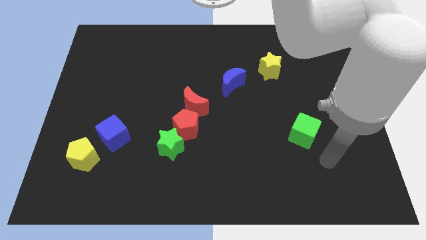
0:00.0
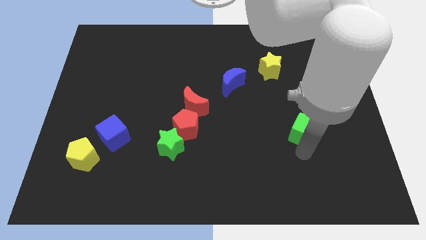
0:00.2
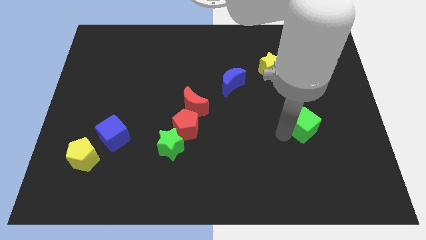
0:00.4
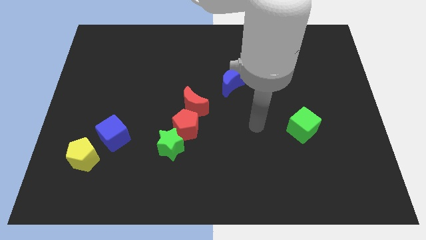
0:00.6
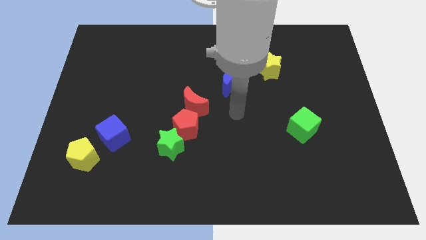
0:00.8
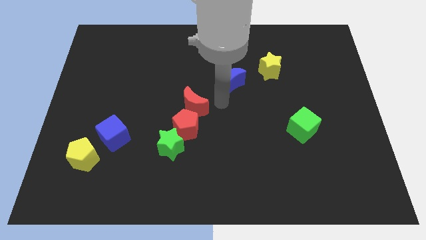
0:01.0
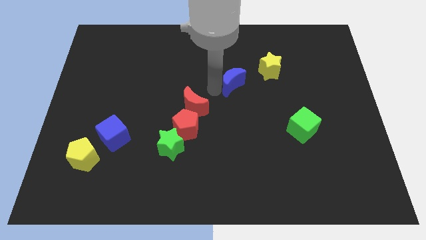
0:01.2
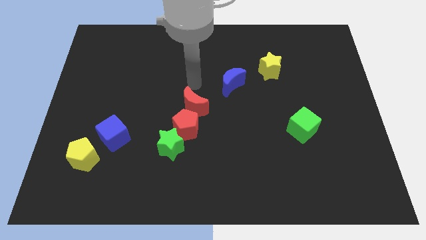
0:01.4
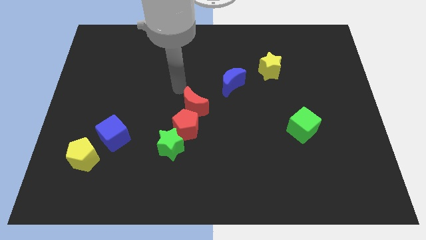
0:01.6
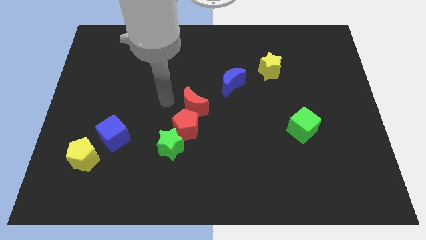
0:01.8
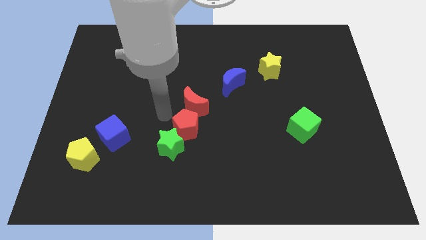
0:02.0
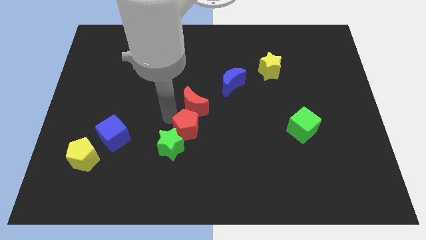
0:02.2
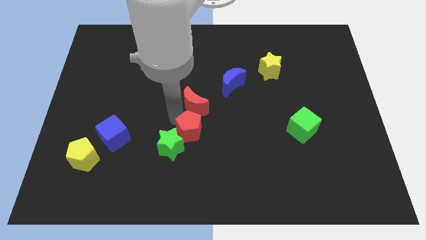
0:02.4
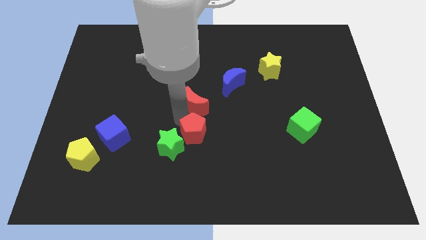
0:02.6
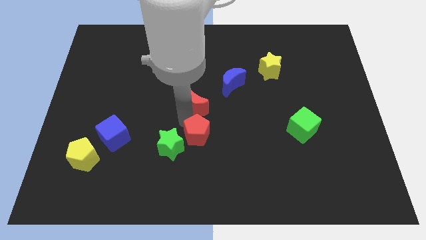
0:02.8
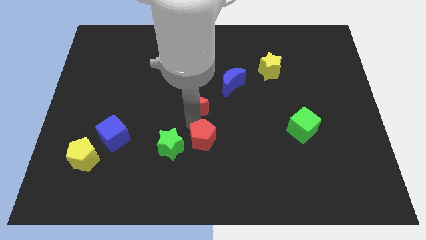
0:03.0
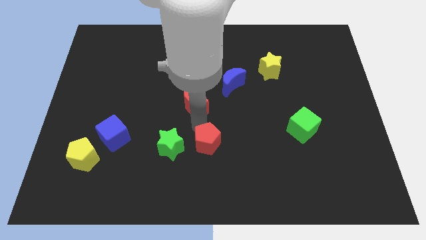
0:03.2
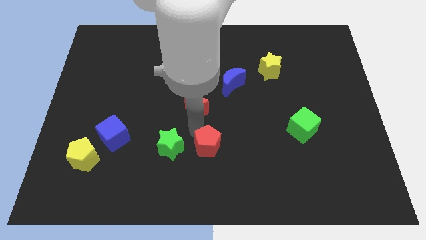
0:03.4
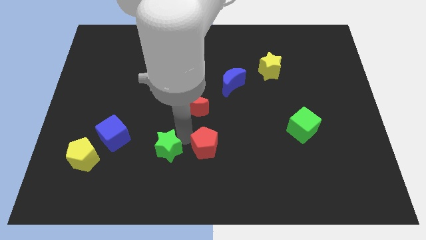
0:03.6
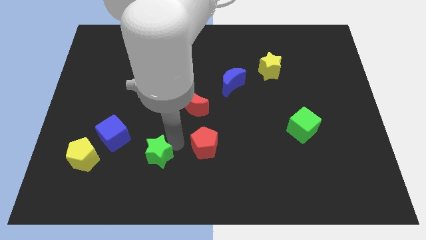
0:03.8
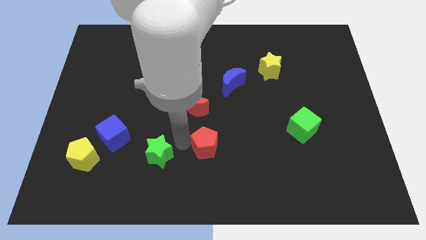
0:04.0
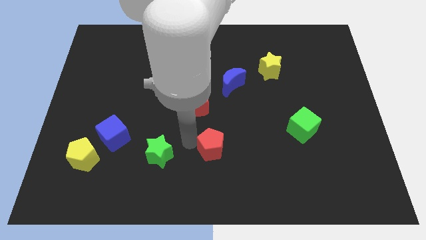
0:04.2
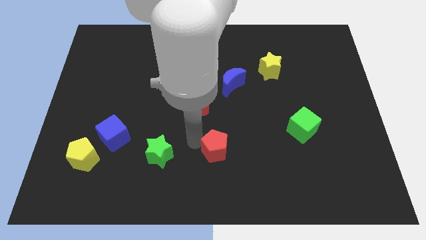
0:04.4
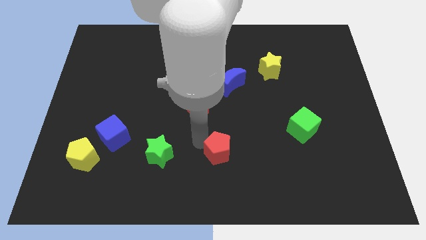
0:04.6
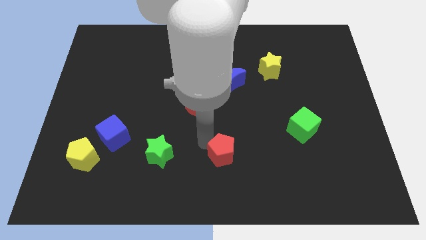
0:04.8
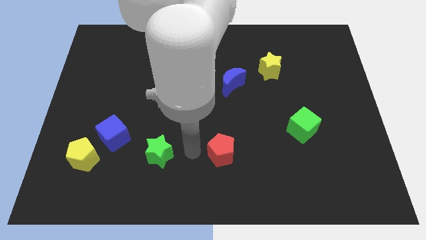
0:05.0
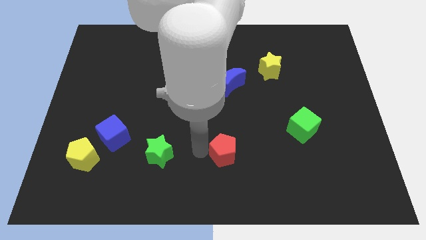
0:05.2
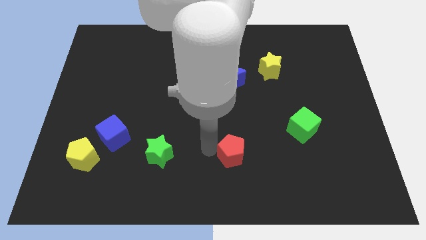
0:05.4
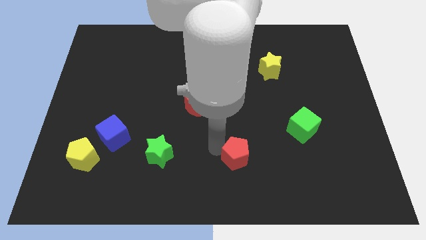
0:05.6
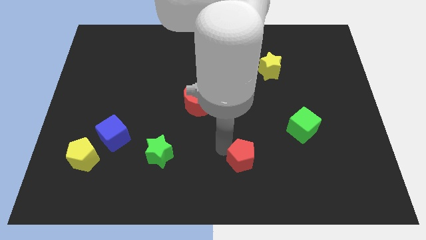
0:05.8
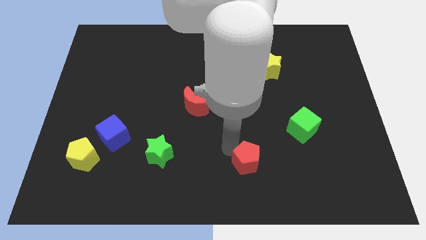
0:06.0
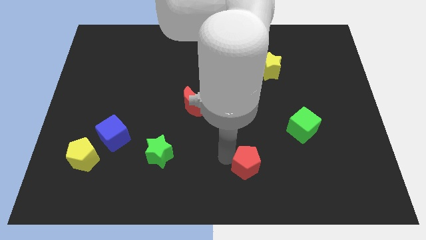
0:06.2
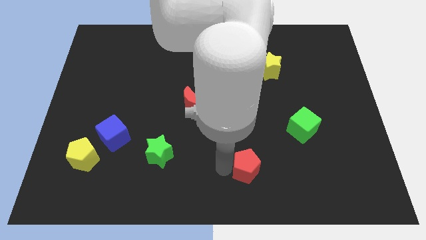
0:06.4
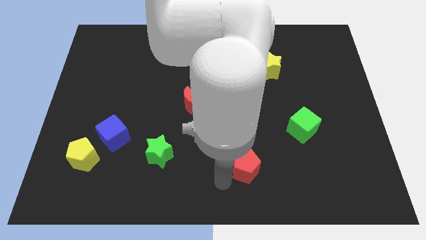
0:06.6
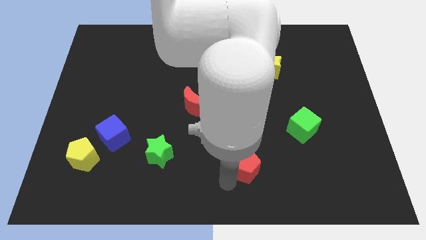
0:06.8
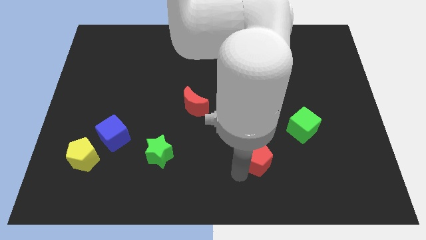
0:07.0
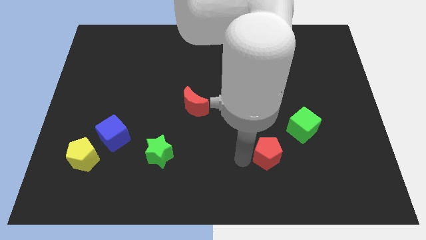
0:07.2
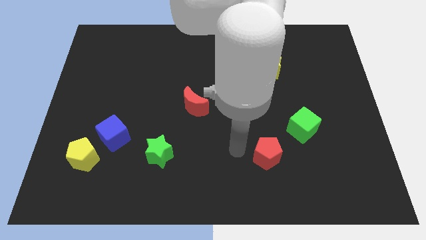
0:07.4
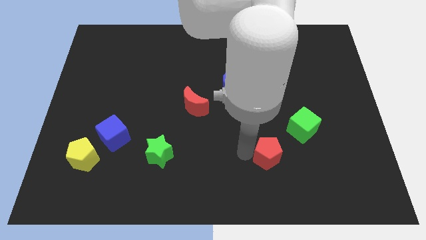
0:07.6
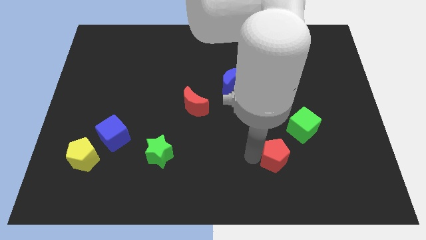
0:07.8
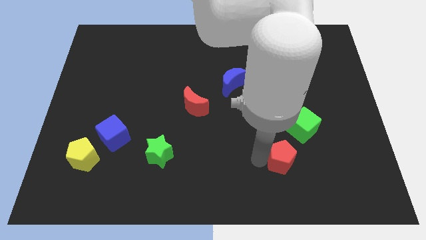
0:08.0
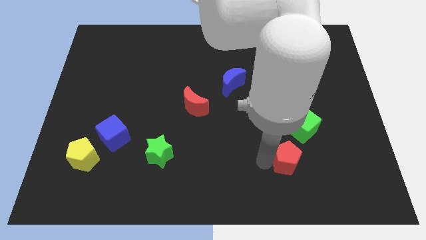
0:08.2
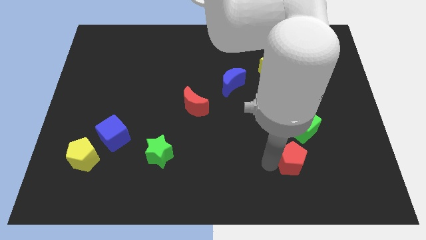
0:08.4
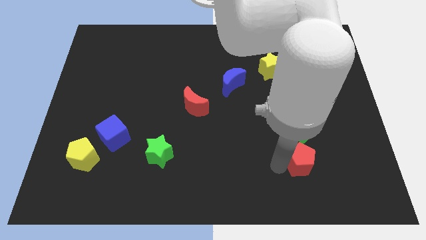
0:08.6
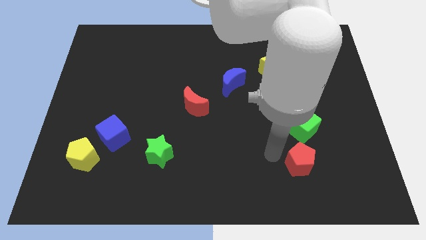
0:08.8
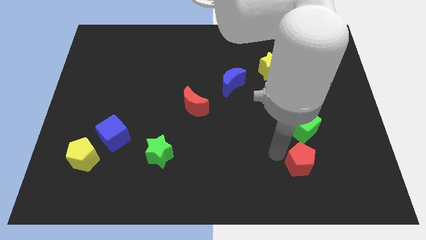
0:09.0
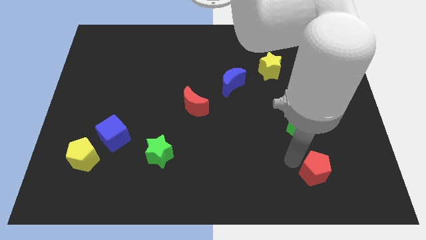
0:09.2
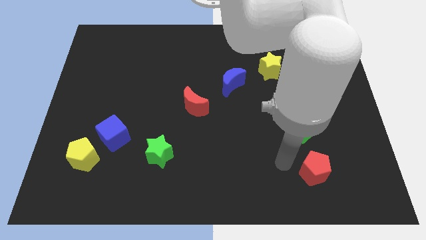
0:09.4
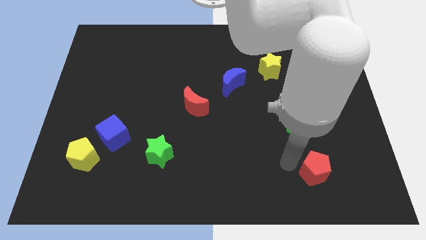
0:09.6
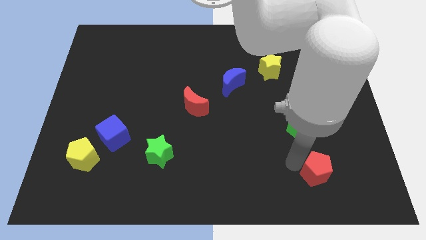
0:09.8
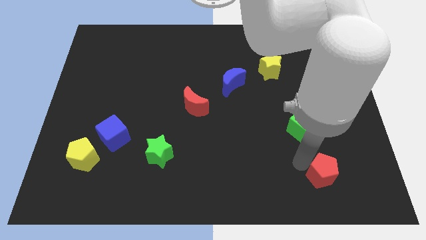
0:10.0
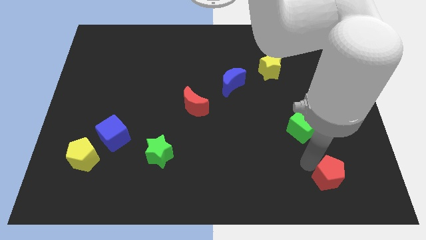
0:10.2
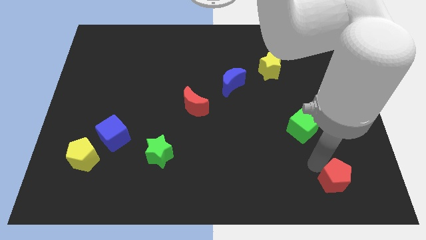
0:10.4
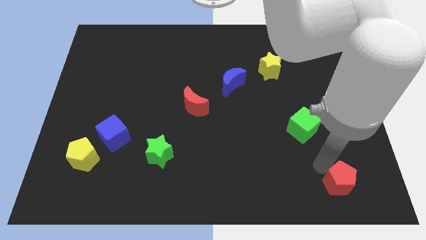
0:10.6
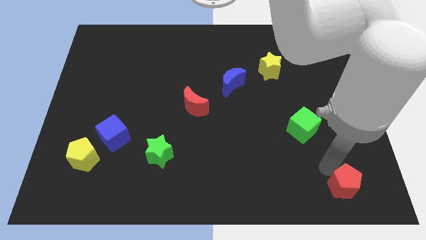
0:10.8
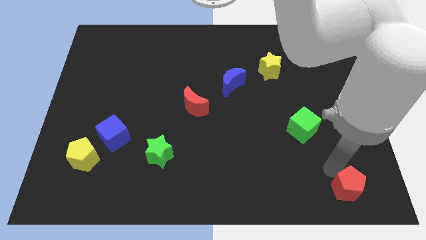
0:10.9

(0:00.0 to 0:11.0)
push the red pentagon to the bottom right corner

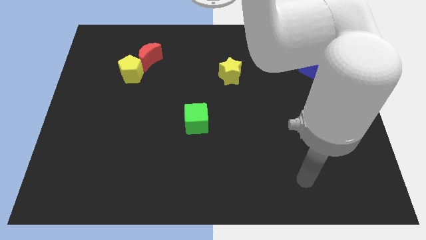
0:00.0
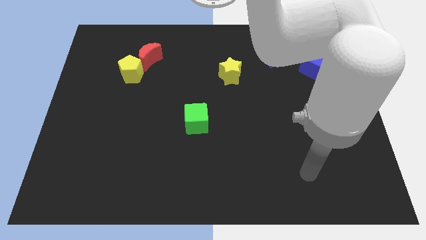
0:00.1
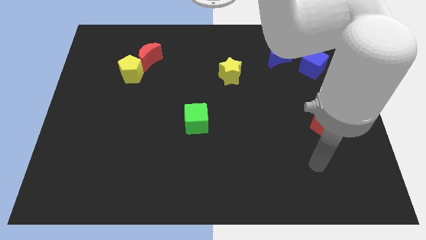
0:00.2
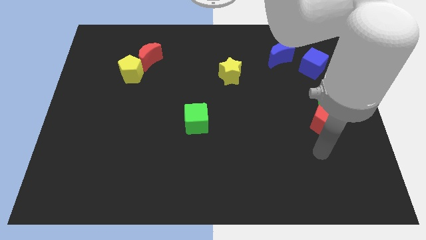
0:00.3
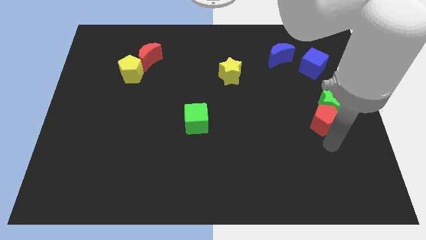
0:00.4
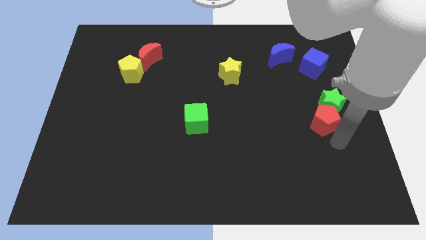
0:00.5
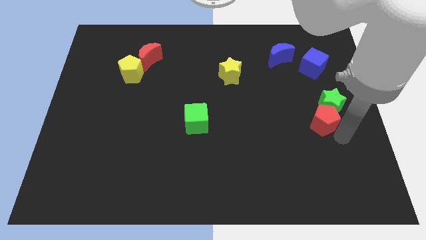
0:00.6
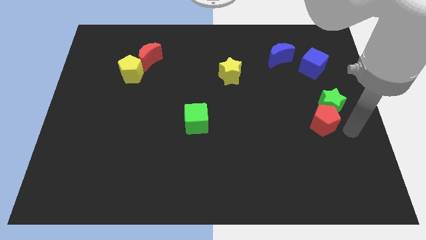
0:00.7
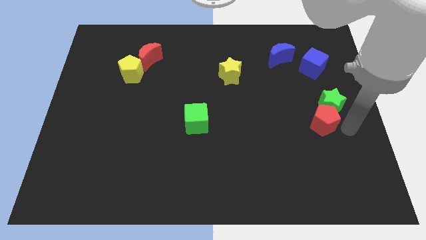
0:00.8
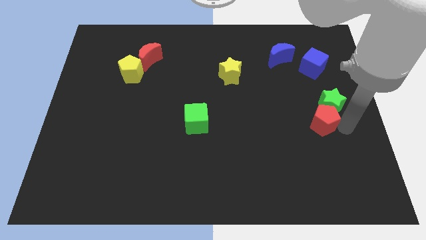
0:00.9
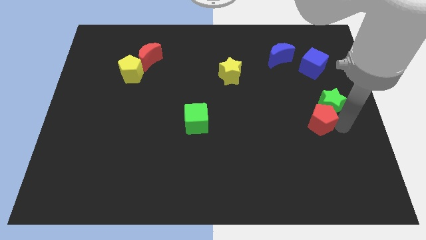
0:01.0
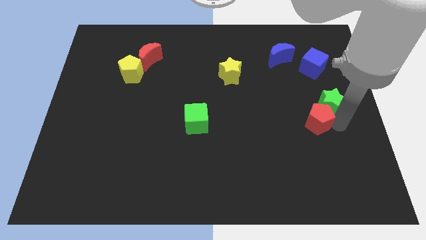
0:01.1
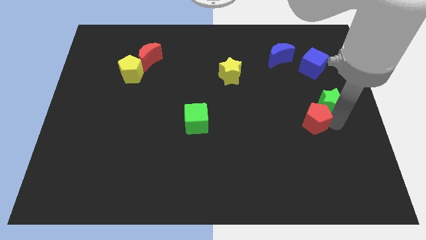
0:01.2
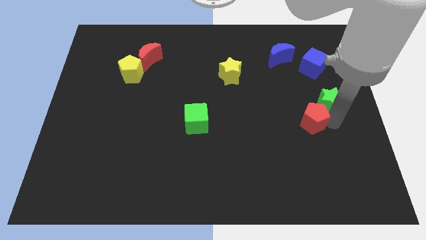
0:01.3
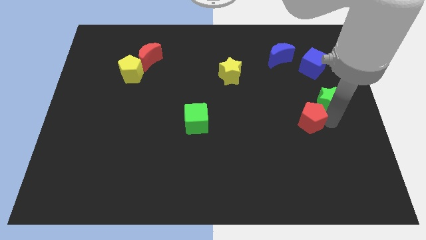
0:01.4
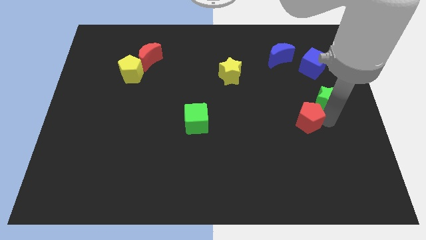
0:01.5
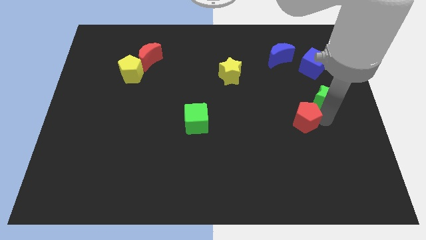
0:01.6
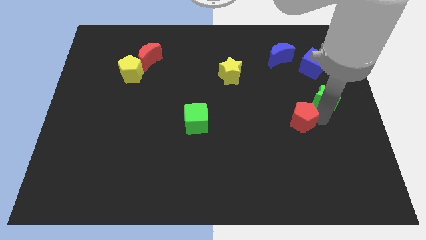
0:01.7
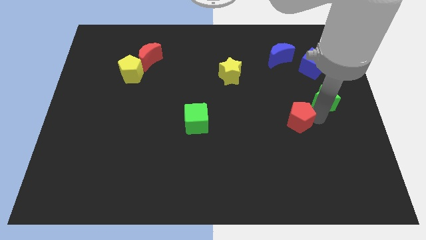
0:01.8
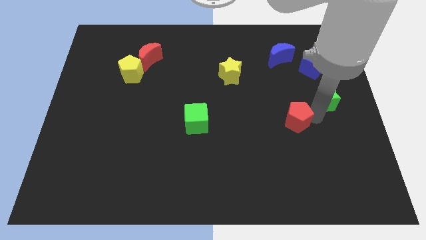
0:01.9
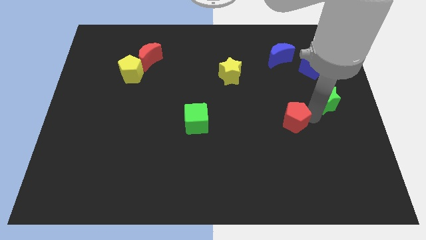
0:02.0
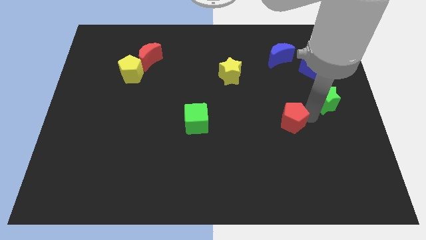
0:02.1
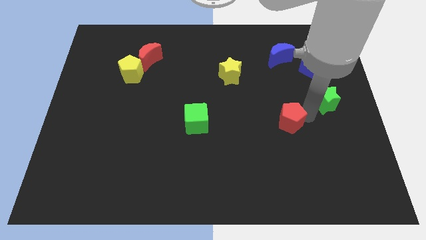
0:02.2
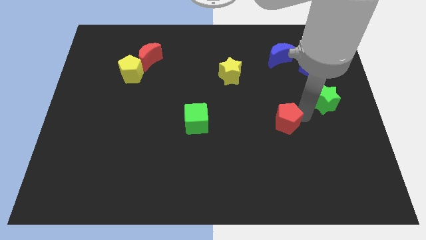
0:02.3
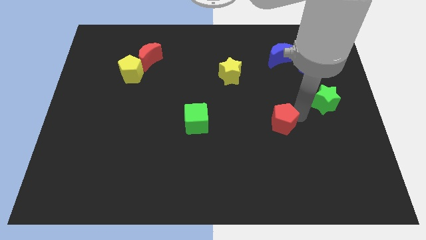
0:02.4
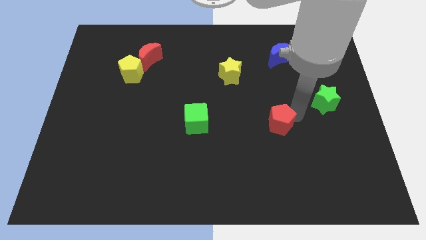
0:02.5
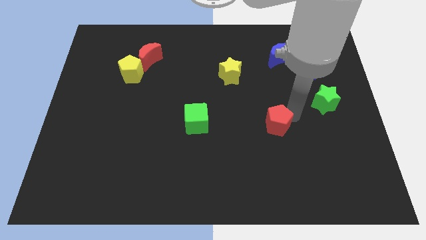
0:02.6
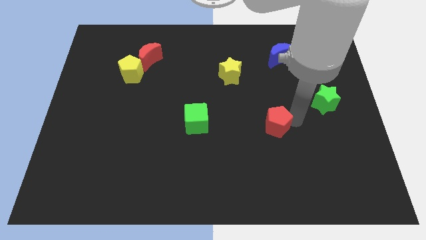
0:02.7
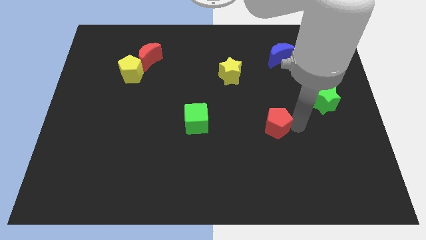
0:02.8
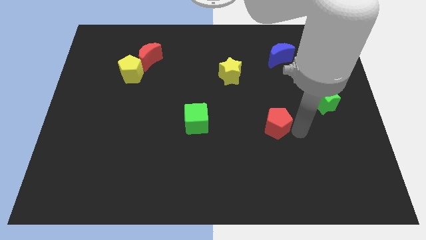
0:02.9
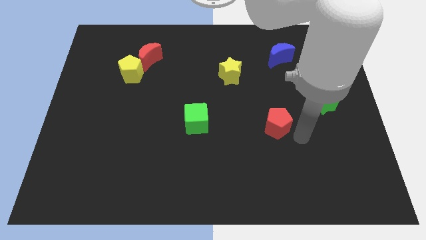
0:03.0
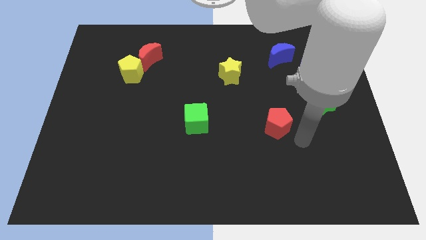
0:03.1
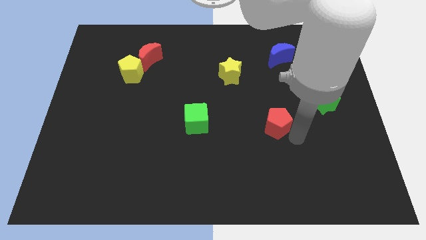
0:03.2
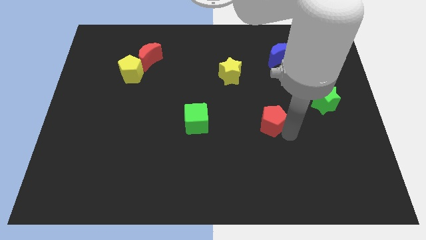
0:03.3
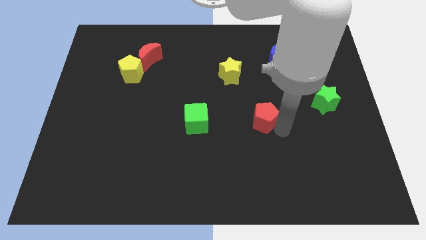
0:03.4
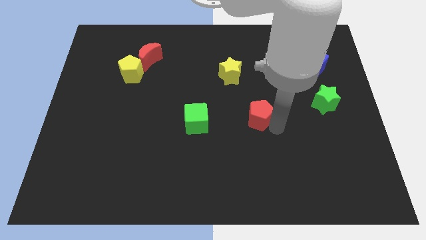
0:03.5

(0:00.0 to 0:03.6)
put the red pentagon to the middle of the board
